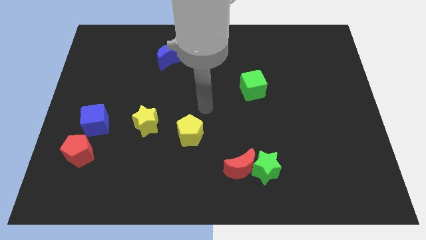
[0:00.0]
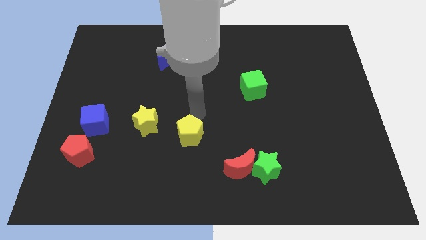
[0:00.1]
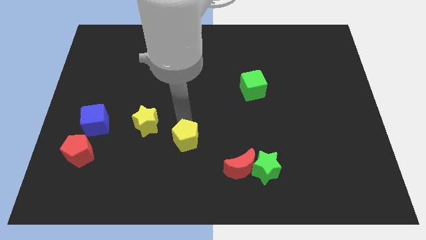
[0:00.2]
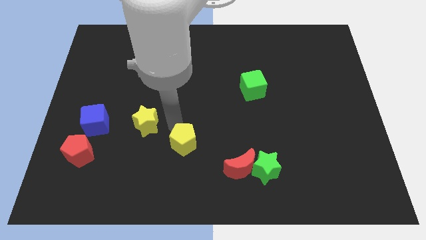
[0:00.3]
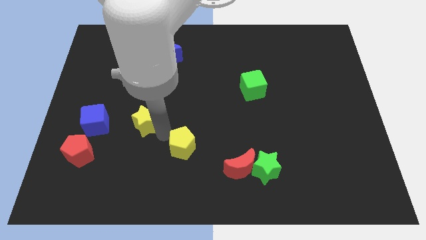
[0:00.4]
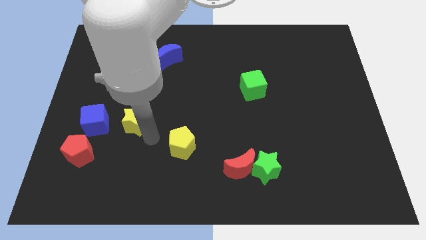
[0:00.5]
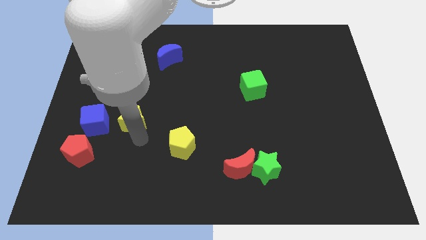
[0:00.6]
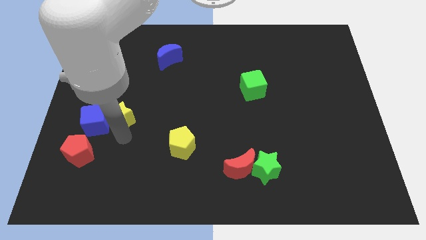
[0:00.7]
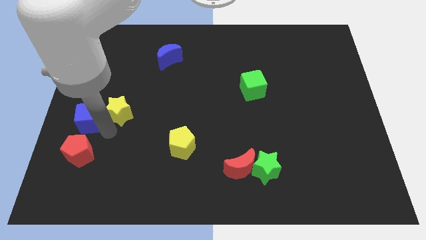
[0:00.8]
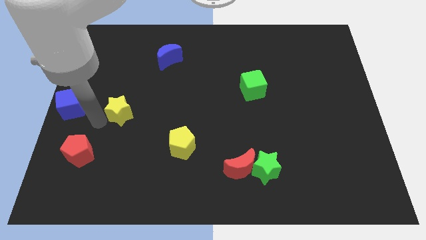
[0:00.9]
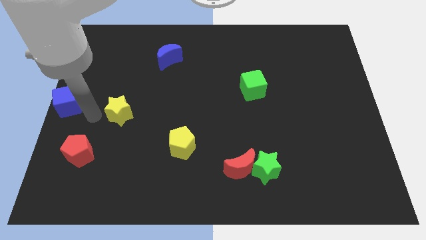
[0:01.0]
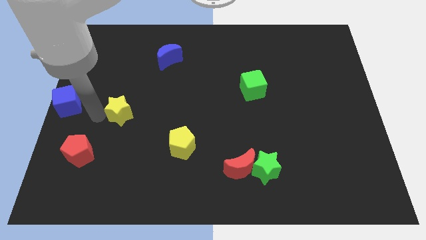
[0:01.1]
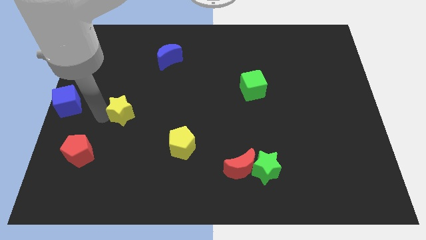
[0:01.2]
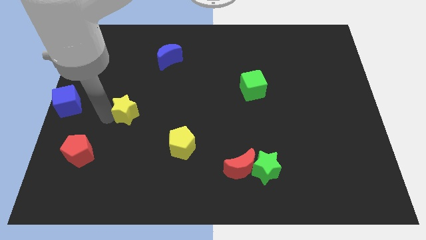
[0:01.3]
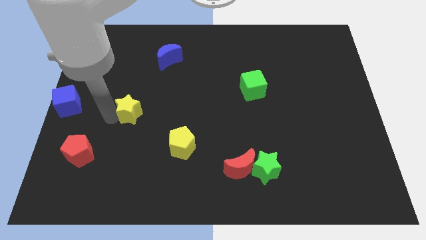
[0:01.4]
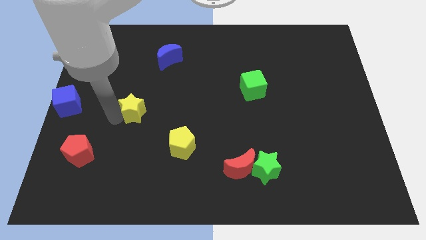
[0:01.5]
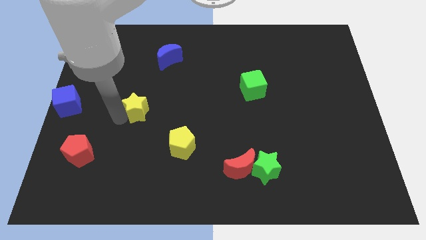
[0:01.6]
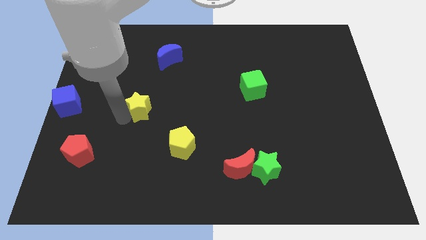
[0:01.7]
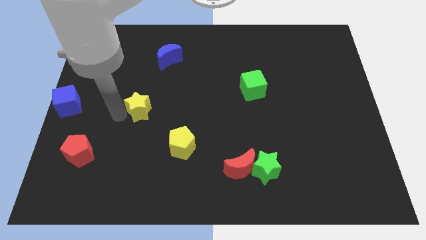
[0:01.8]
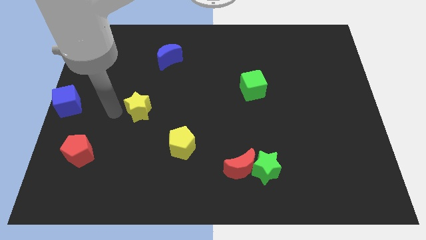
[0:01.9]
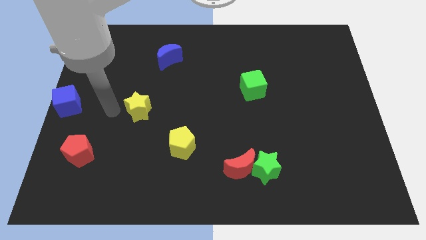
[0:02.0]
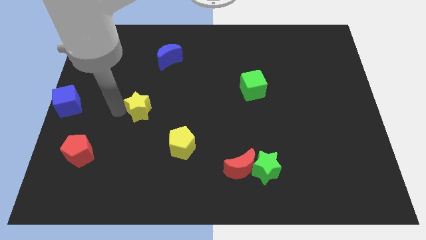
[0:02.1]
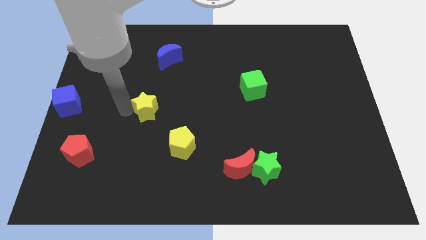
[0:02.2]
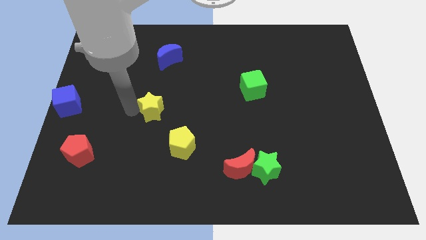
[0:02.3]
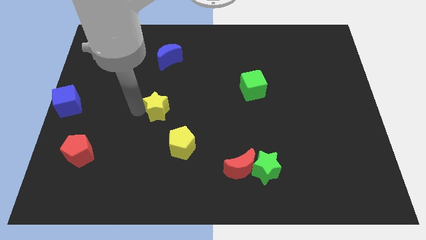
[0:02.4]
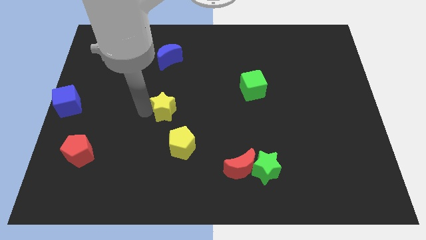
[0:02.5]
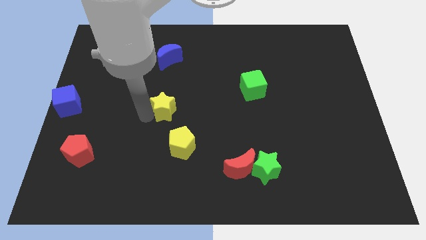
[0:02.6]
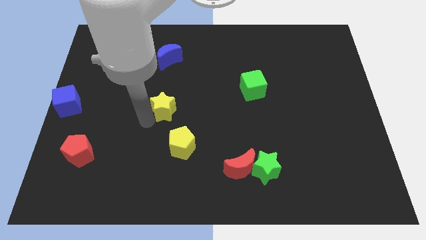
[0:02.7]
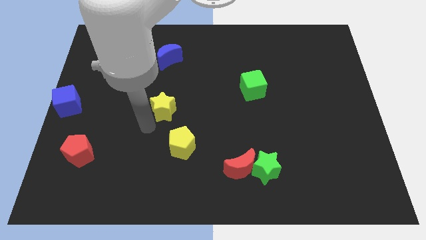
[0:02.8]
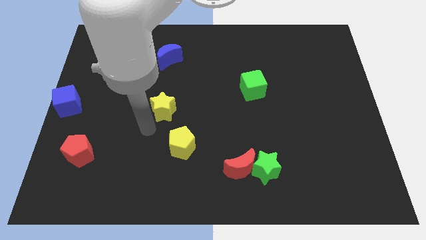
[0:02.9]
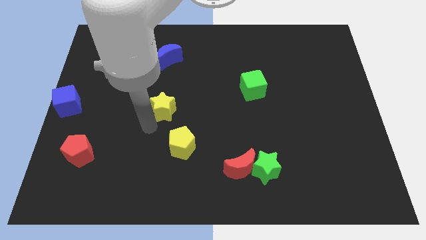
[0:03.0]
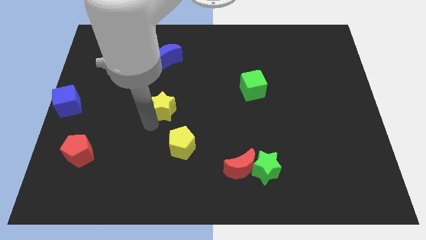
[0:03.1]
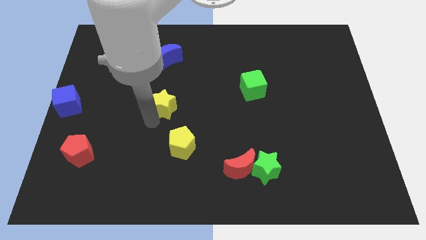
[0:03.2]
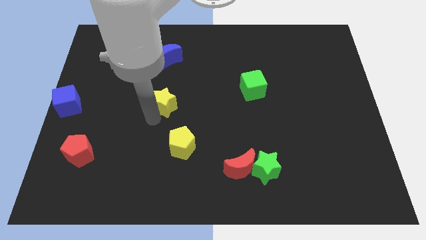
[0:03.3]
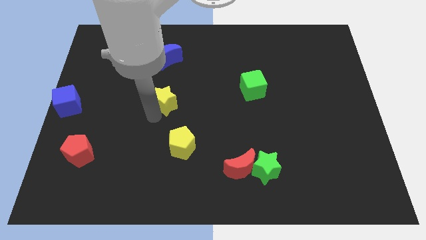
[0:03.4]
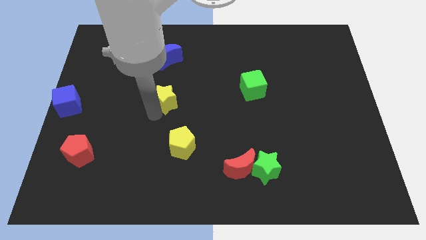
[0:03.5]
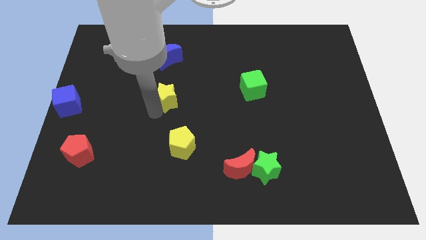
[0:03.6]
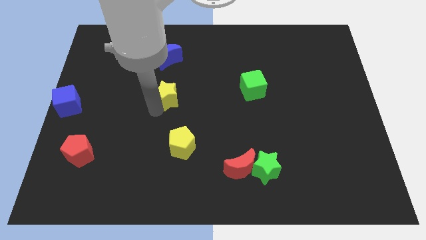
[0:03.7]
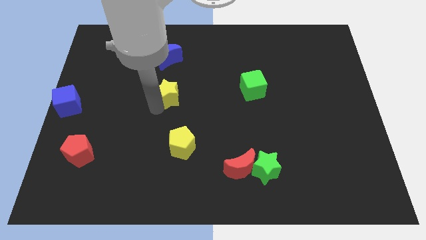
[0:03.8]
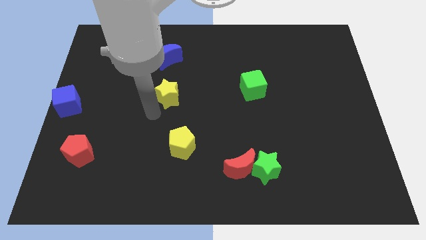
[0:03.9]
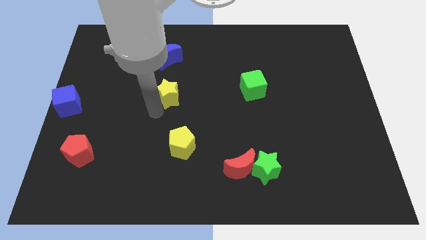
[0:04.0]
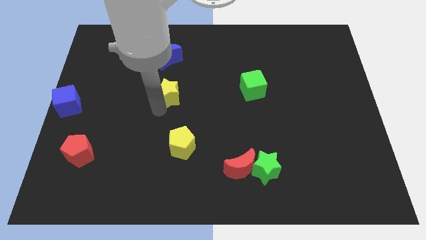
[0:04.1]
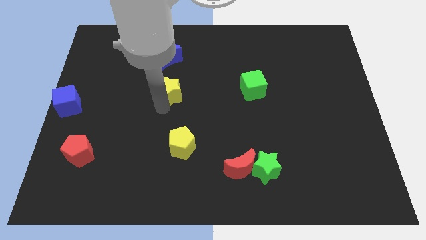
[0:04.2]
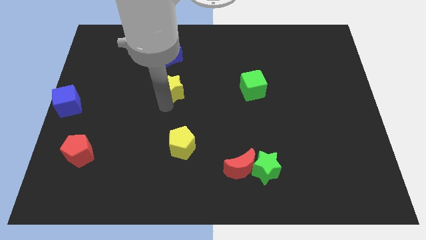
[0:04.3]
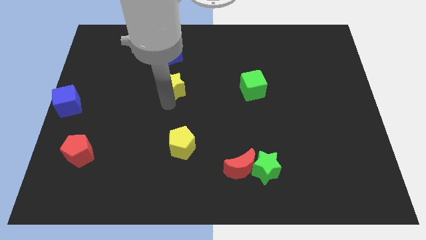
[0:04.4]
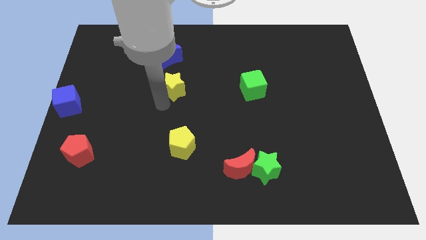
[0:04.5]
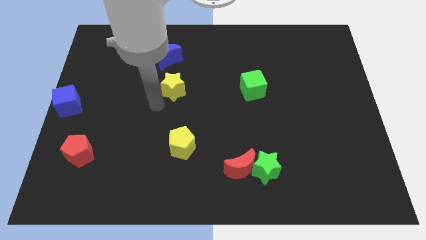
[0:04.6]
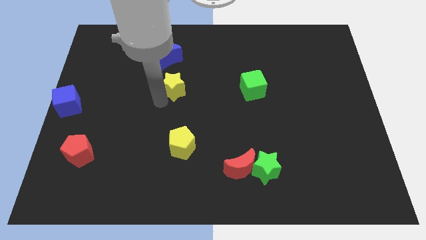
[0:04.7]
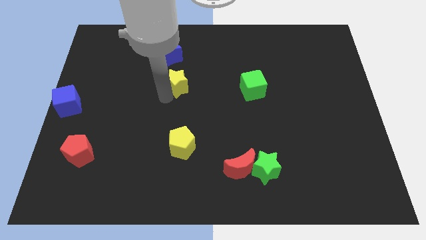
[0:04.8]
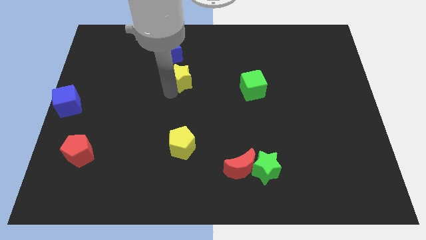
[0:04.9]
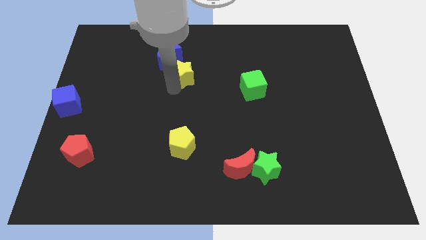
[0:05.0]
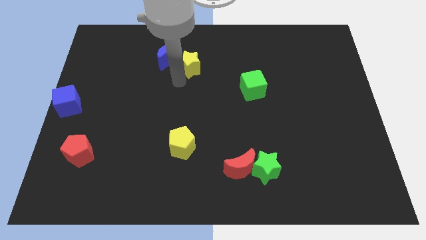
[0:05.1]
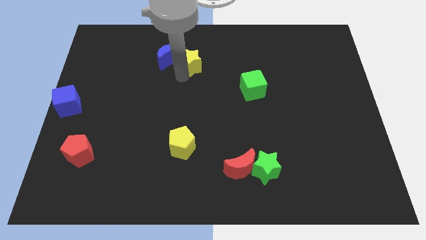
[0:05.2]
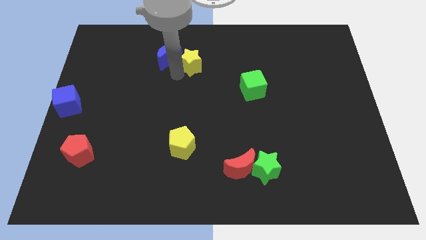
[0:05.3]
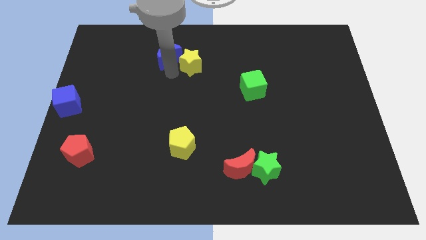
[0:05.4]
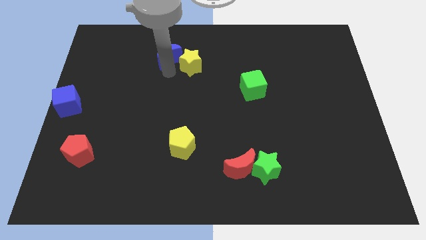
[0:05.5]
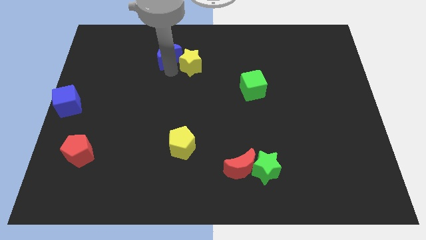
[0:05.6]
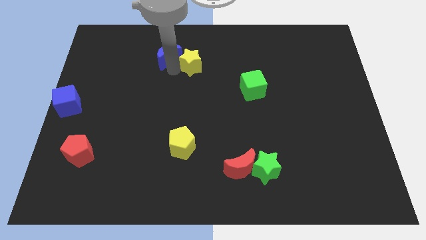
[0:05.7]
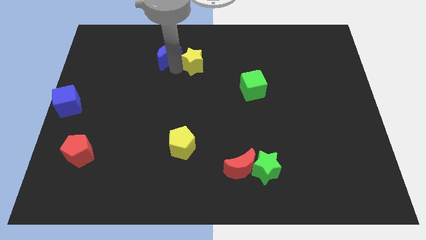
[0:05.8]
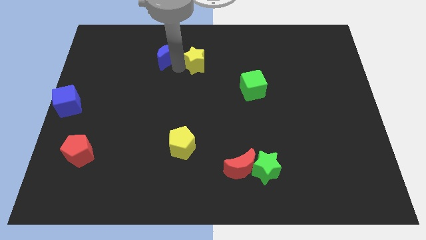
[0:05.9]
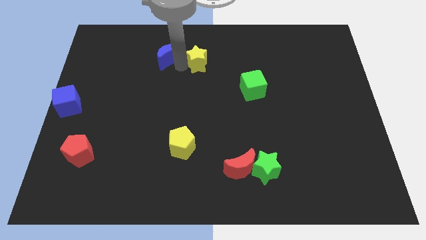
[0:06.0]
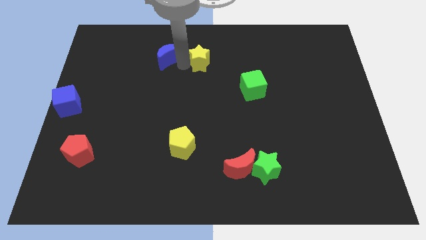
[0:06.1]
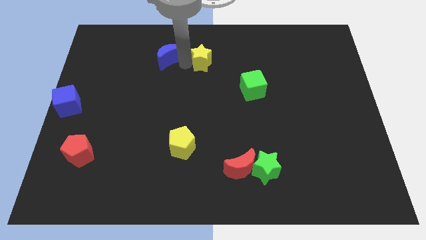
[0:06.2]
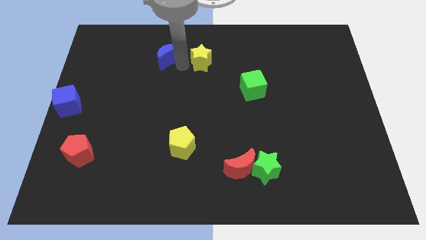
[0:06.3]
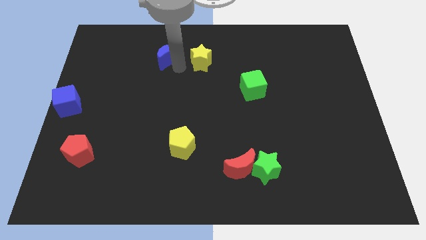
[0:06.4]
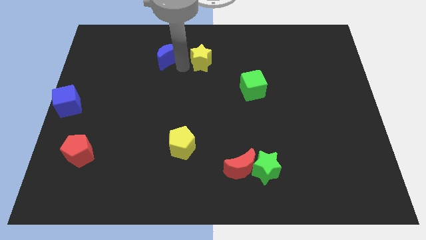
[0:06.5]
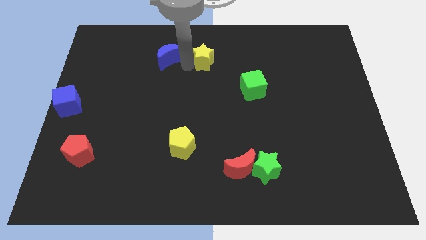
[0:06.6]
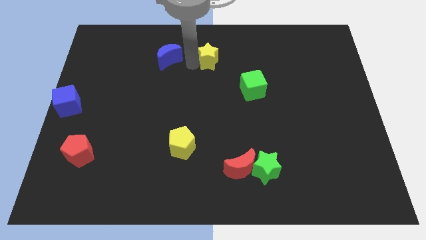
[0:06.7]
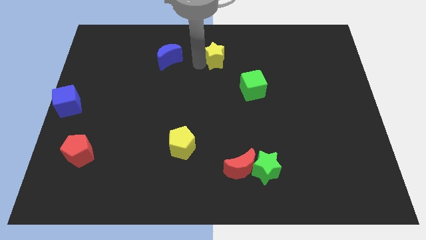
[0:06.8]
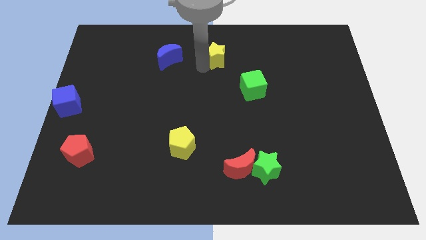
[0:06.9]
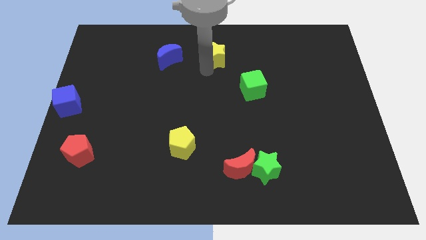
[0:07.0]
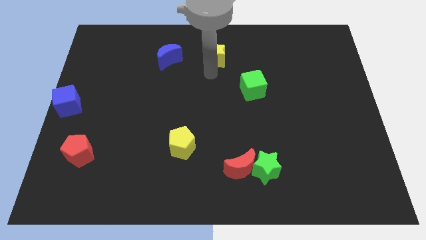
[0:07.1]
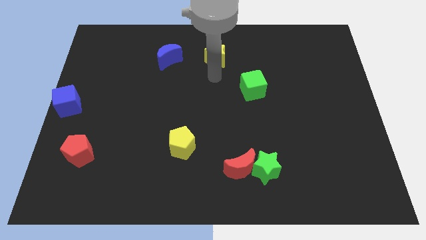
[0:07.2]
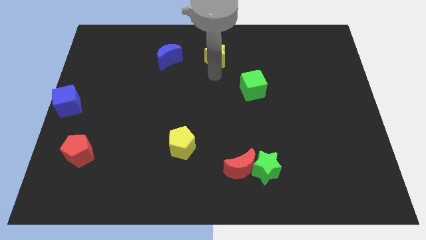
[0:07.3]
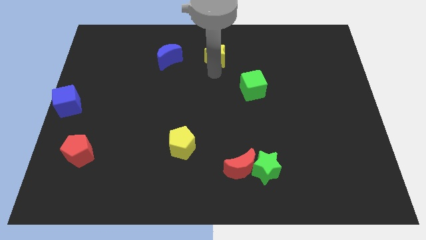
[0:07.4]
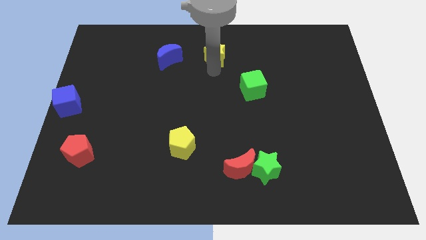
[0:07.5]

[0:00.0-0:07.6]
push the yellow star to the top side
